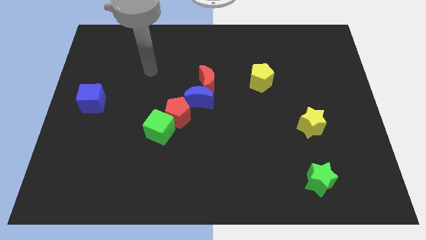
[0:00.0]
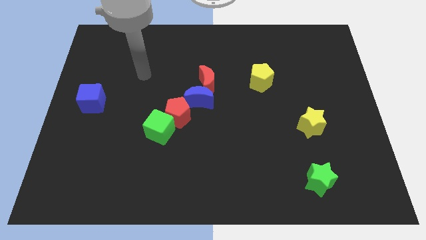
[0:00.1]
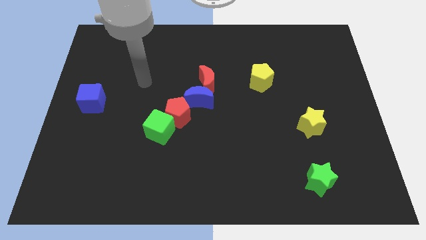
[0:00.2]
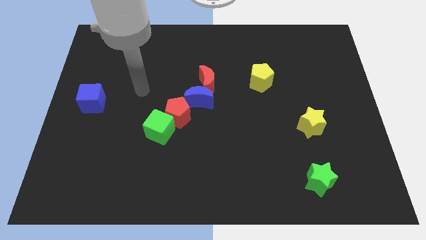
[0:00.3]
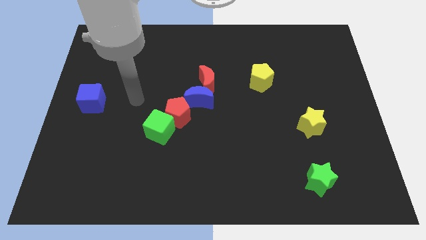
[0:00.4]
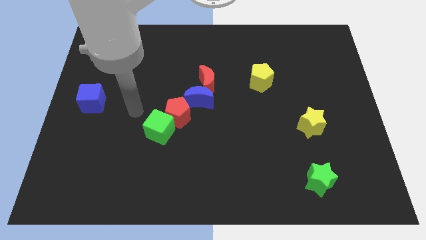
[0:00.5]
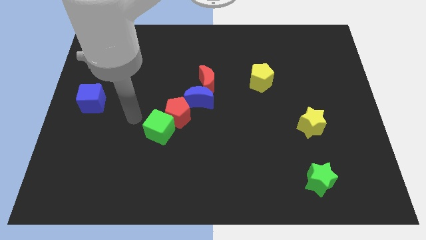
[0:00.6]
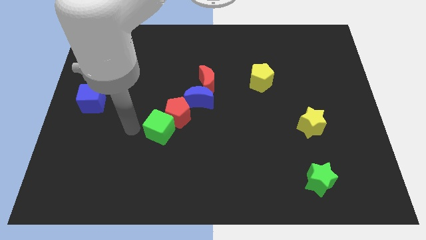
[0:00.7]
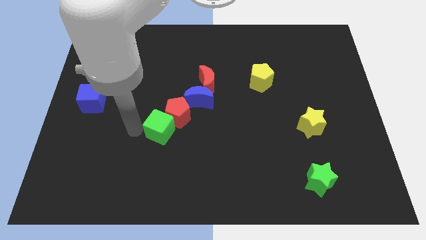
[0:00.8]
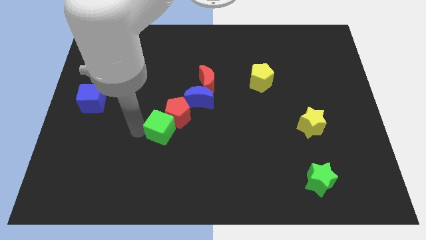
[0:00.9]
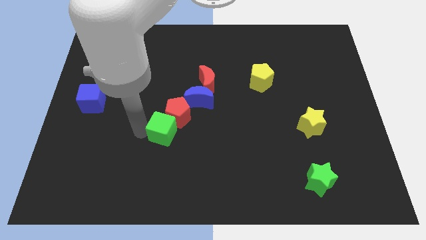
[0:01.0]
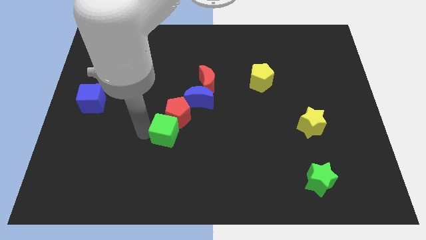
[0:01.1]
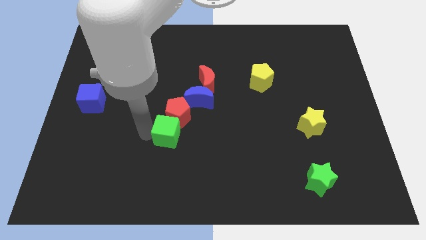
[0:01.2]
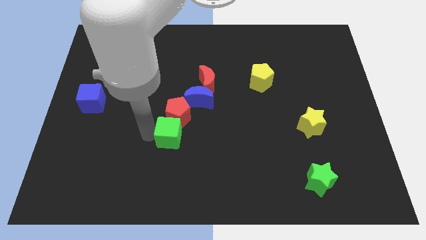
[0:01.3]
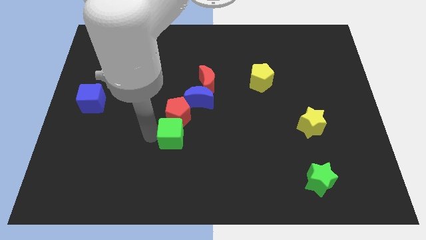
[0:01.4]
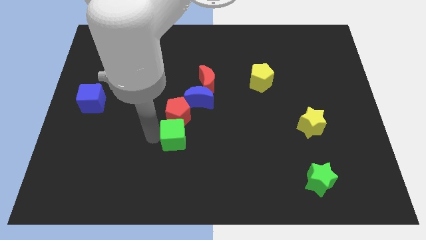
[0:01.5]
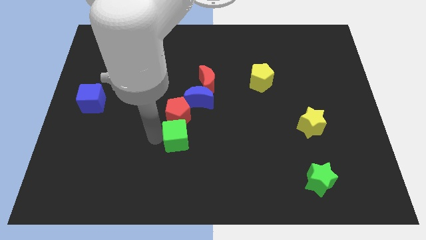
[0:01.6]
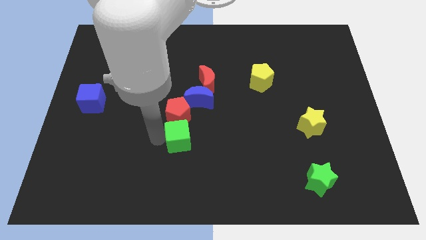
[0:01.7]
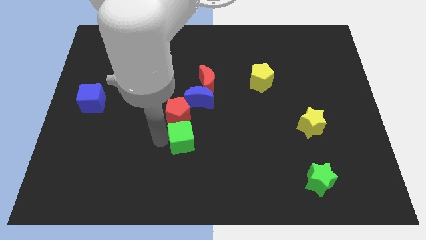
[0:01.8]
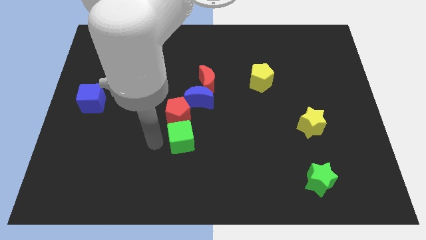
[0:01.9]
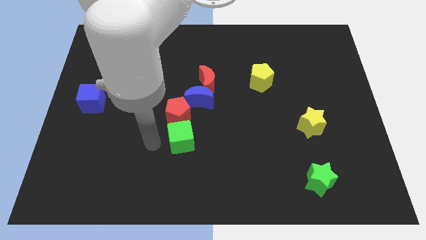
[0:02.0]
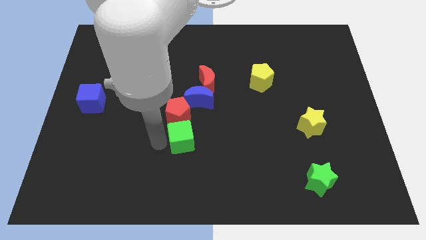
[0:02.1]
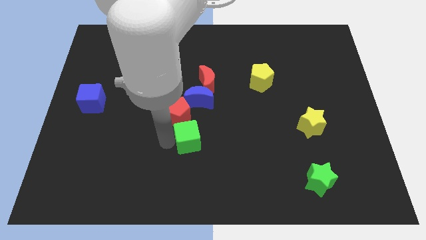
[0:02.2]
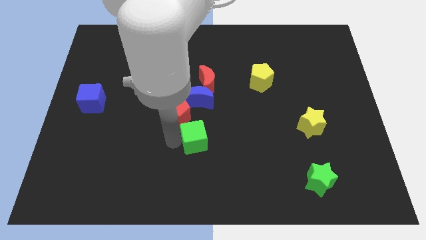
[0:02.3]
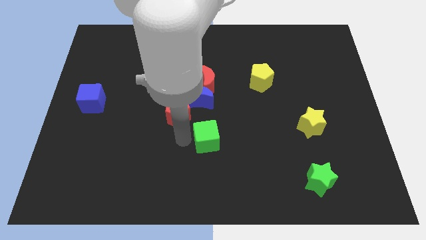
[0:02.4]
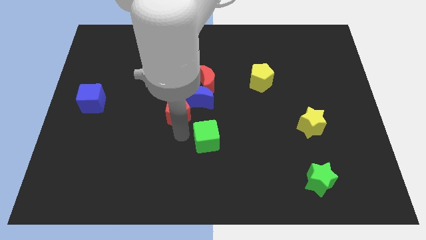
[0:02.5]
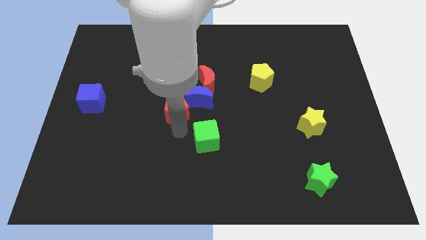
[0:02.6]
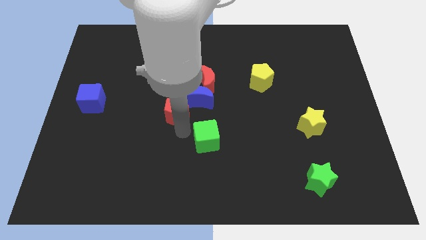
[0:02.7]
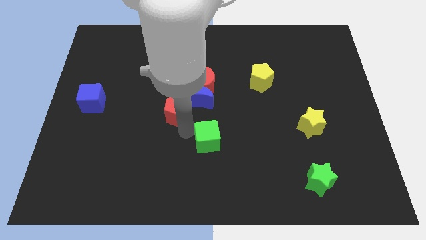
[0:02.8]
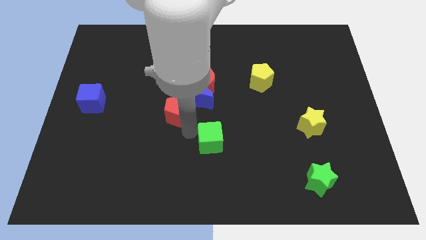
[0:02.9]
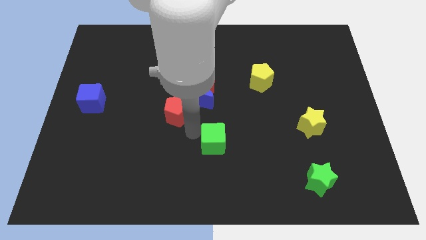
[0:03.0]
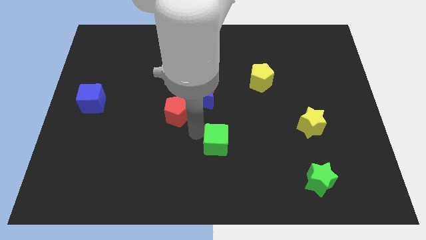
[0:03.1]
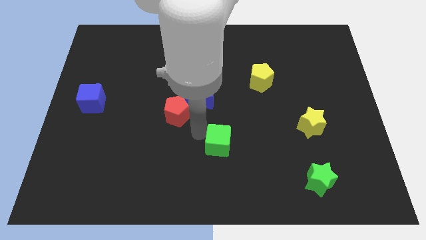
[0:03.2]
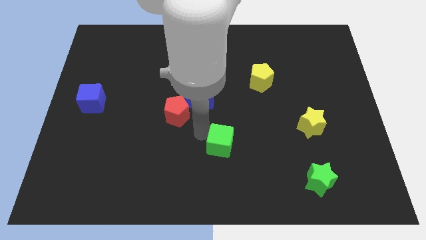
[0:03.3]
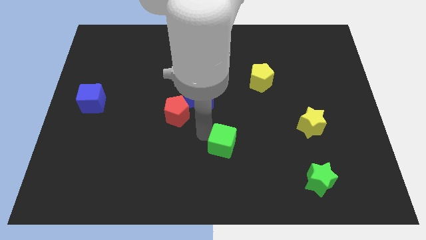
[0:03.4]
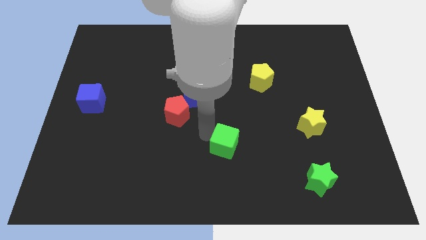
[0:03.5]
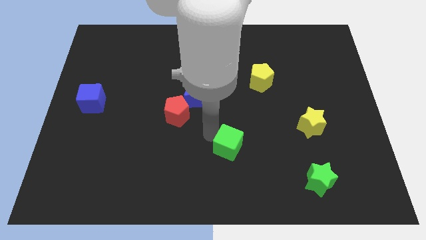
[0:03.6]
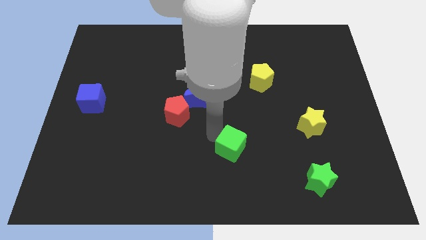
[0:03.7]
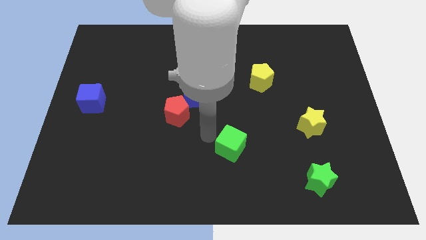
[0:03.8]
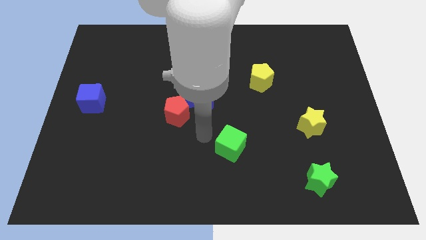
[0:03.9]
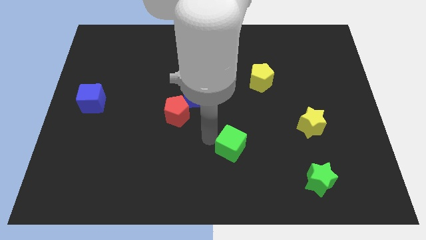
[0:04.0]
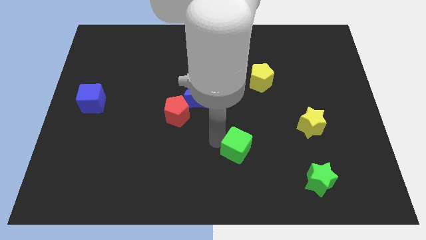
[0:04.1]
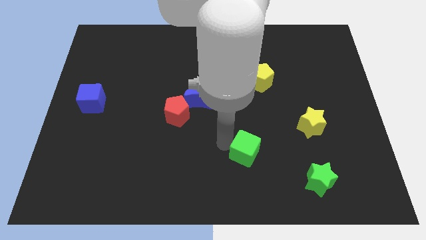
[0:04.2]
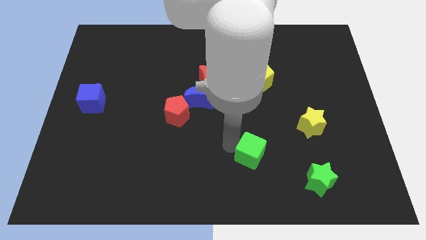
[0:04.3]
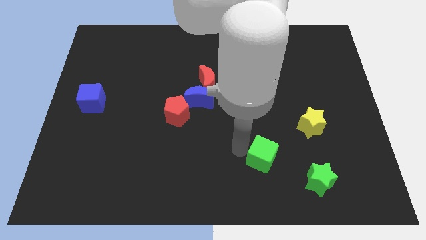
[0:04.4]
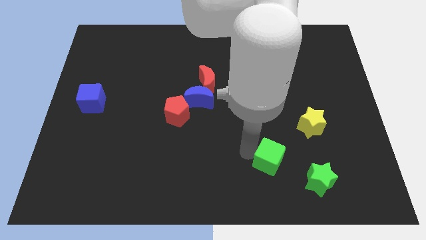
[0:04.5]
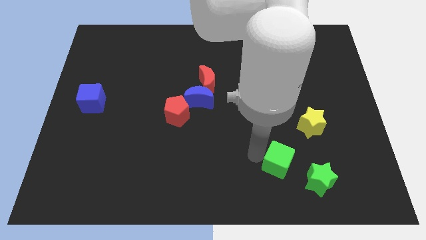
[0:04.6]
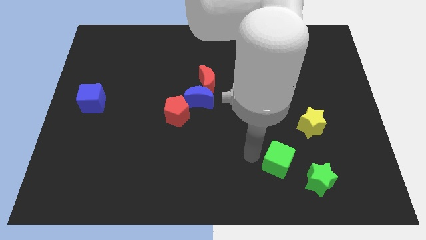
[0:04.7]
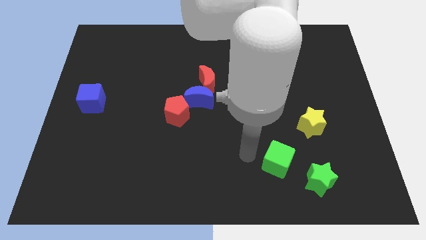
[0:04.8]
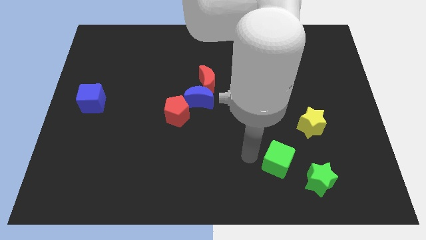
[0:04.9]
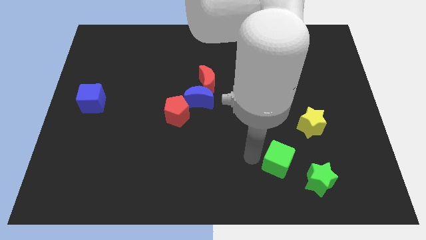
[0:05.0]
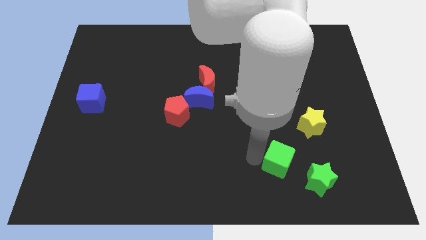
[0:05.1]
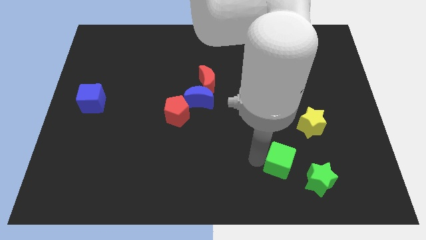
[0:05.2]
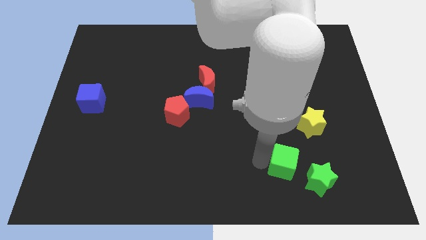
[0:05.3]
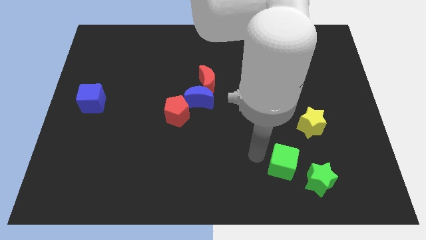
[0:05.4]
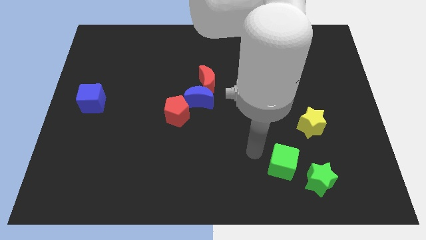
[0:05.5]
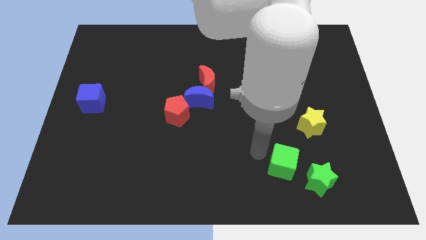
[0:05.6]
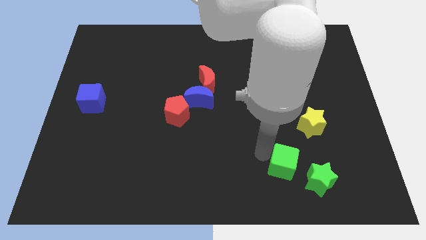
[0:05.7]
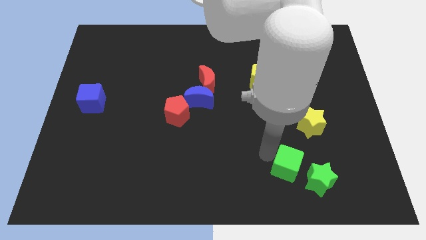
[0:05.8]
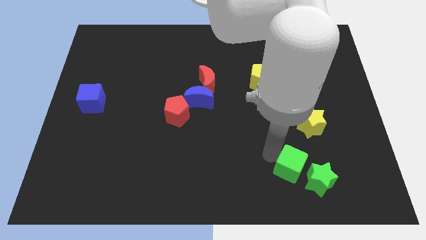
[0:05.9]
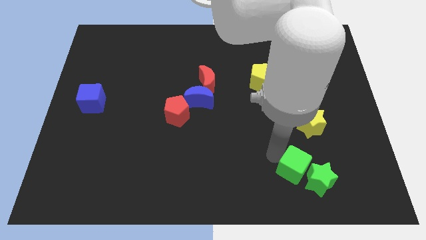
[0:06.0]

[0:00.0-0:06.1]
push the green cube next to the green star
